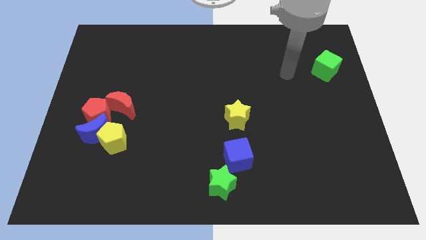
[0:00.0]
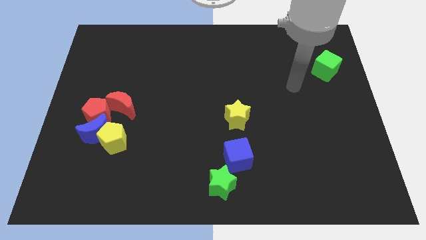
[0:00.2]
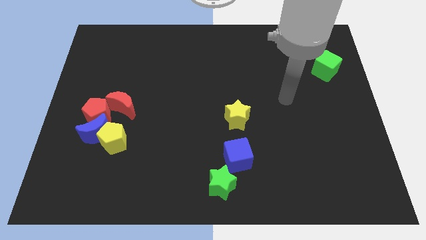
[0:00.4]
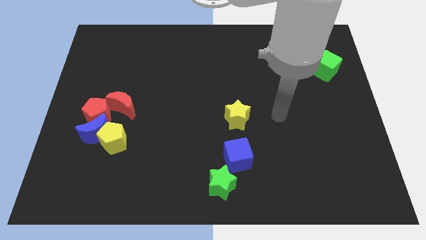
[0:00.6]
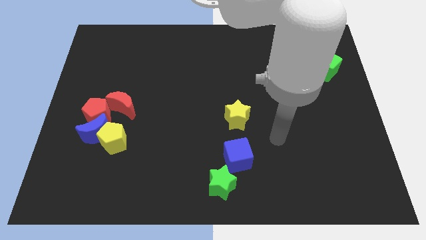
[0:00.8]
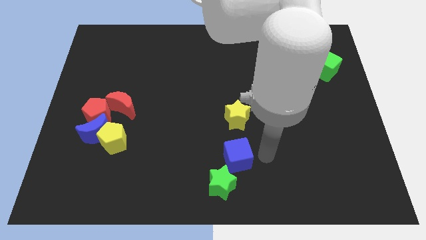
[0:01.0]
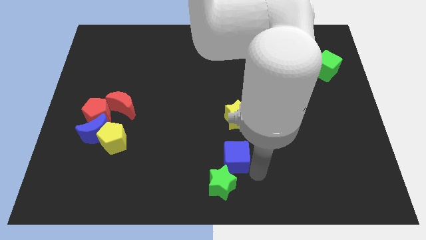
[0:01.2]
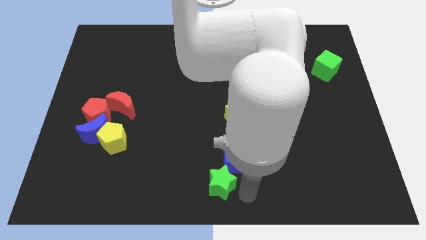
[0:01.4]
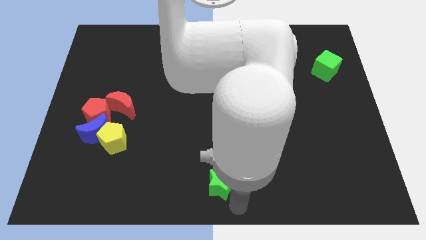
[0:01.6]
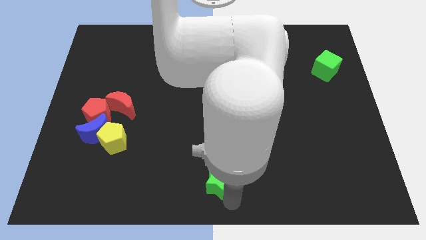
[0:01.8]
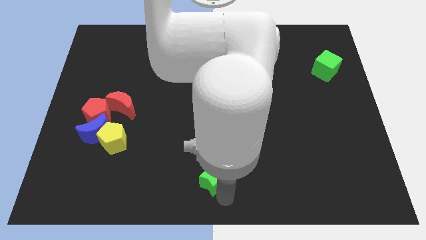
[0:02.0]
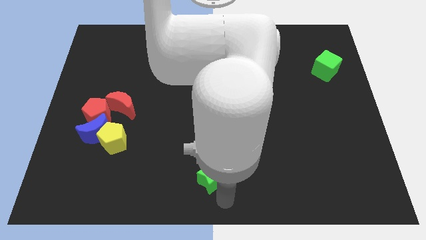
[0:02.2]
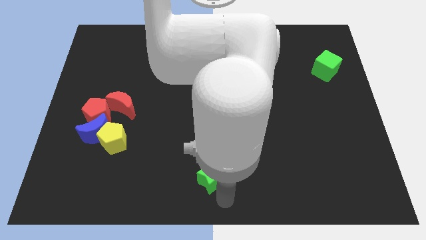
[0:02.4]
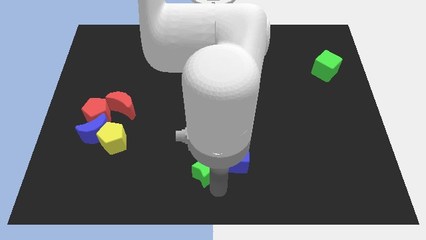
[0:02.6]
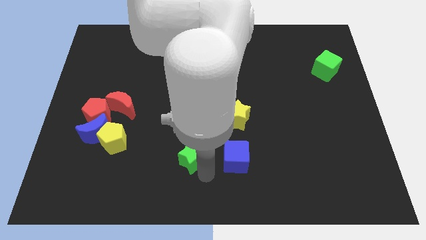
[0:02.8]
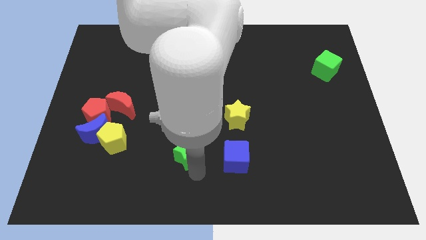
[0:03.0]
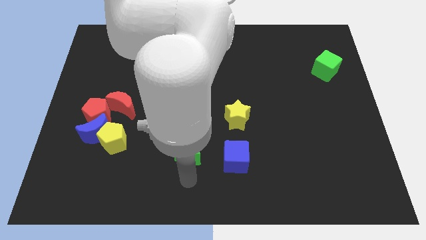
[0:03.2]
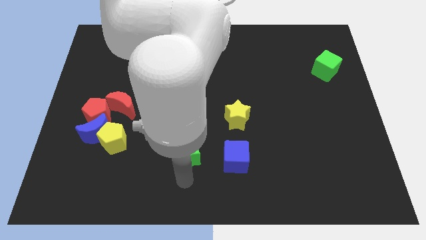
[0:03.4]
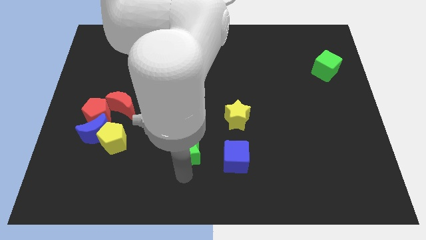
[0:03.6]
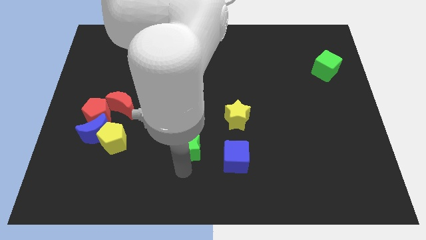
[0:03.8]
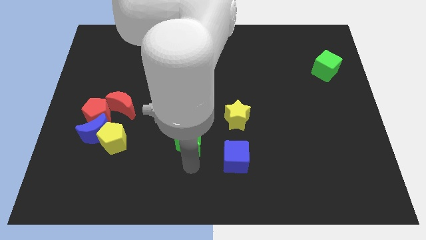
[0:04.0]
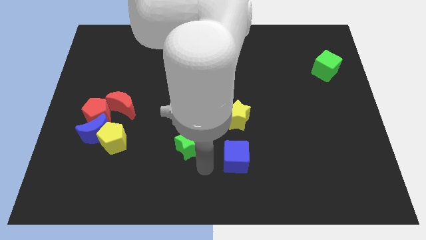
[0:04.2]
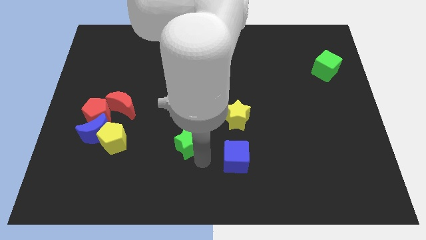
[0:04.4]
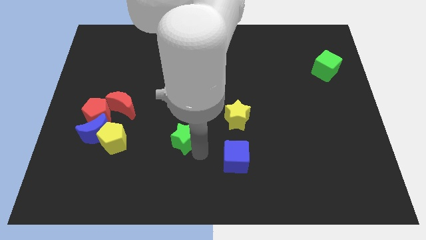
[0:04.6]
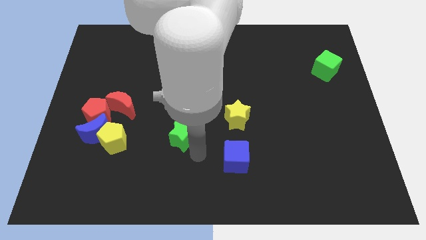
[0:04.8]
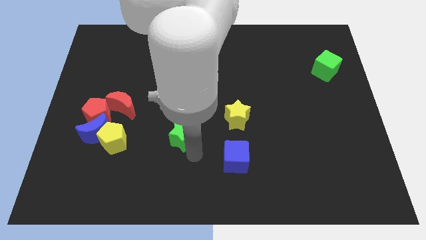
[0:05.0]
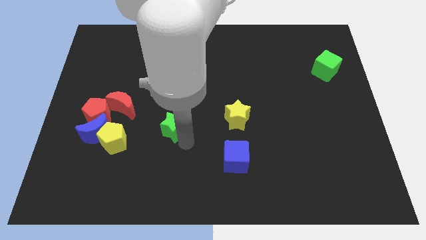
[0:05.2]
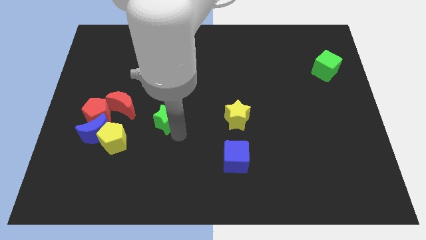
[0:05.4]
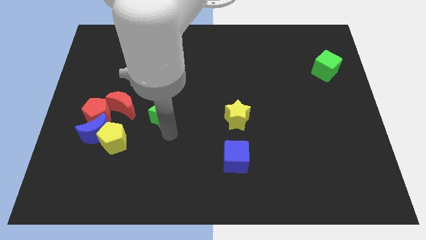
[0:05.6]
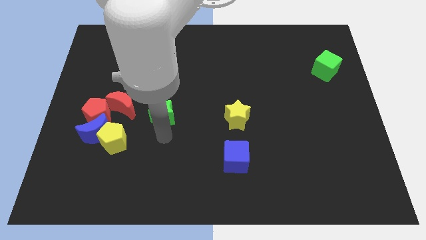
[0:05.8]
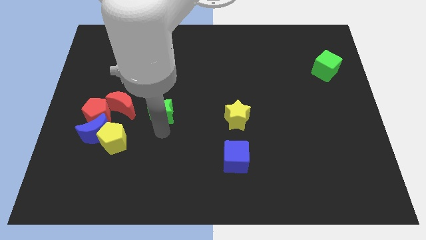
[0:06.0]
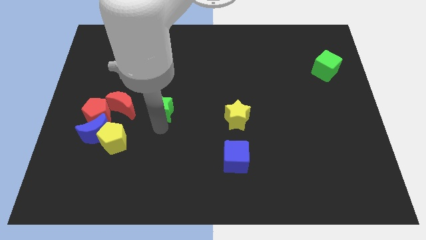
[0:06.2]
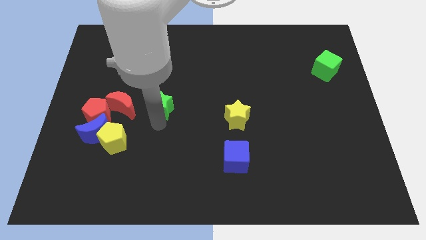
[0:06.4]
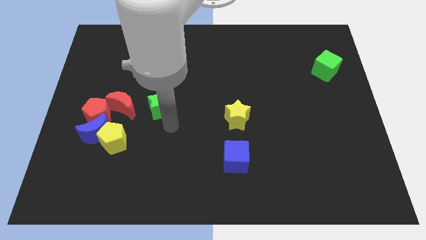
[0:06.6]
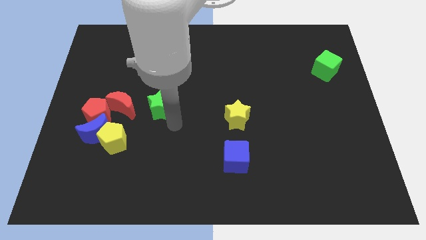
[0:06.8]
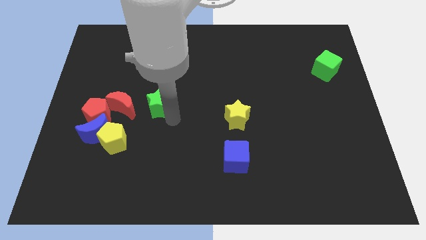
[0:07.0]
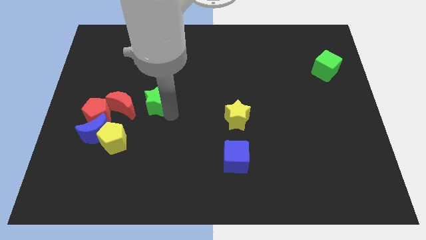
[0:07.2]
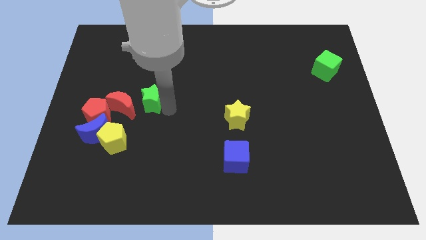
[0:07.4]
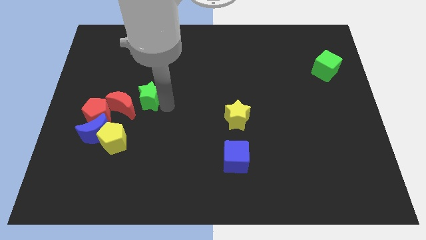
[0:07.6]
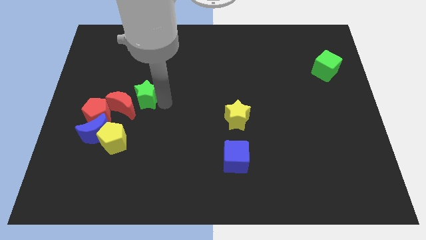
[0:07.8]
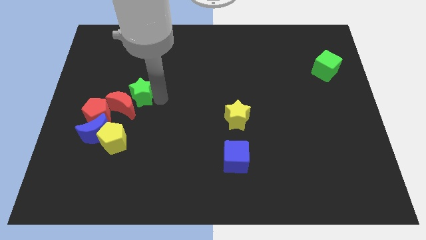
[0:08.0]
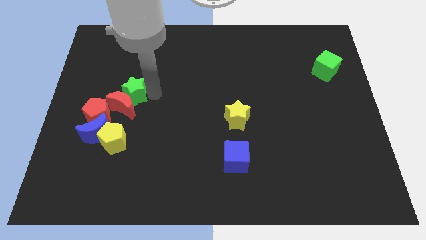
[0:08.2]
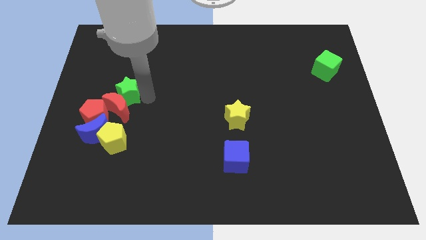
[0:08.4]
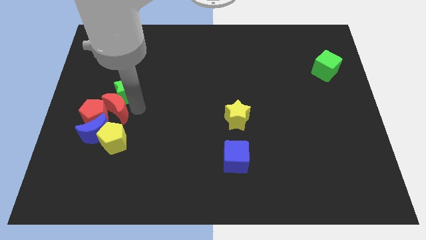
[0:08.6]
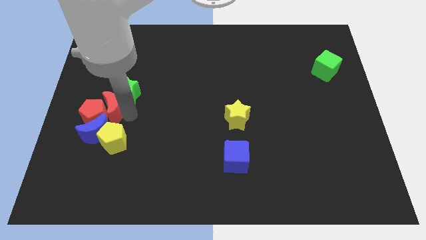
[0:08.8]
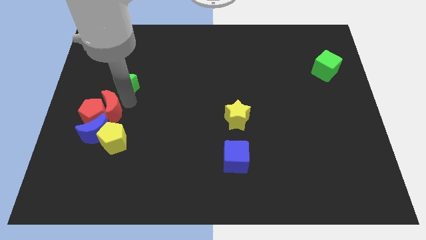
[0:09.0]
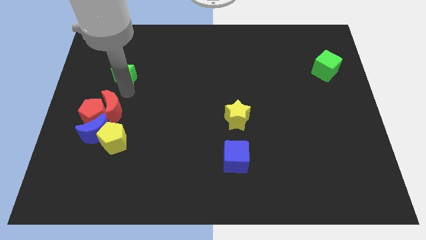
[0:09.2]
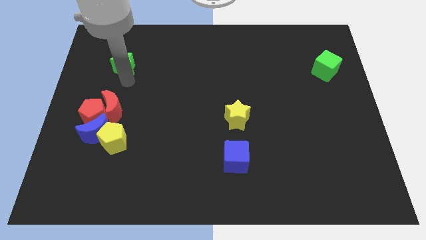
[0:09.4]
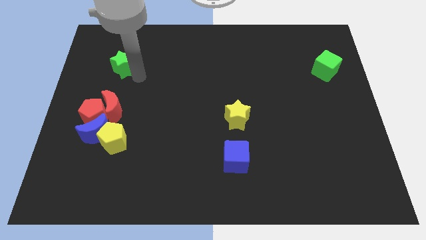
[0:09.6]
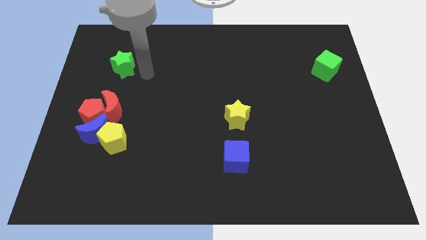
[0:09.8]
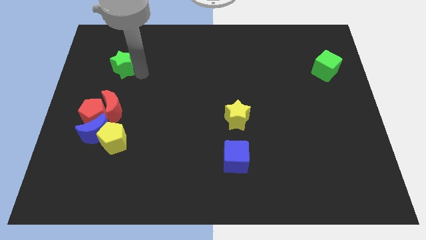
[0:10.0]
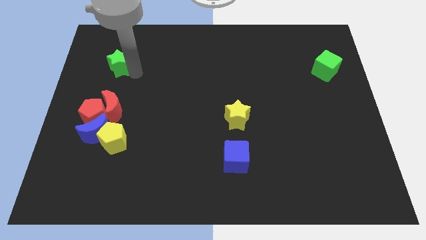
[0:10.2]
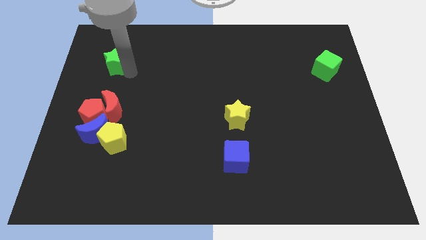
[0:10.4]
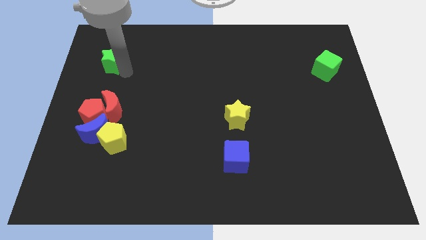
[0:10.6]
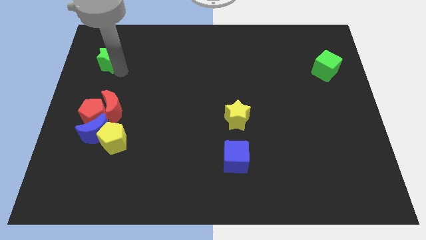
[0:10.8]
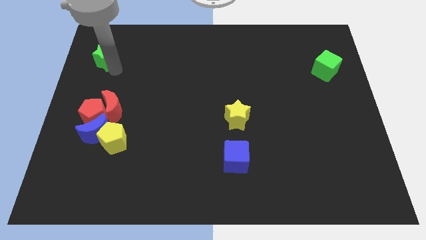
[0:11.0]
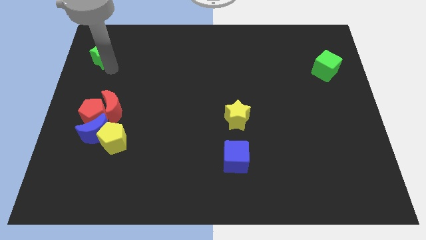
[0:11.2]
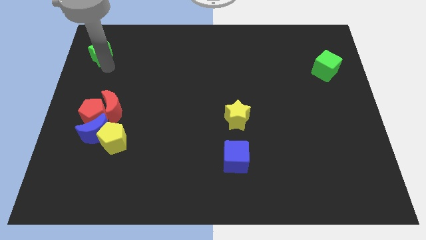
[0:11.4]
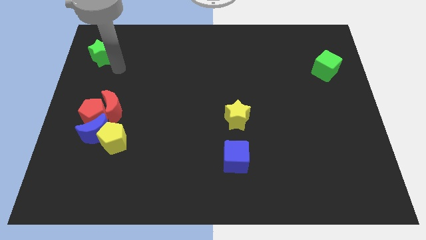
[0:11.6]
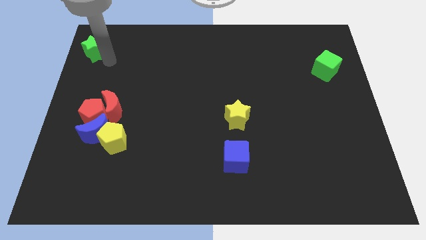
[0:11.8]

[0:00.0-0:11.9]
put the green star to the top left
